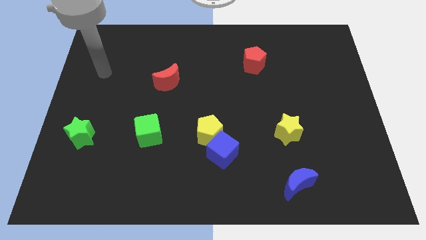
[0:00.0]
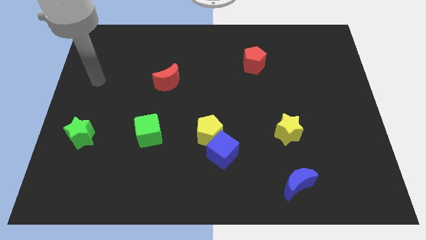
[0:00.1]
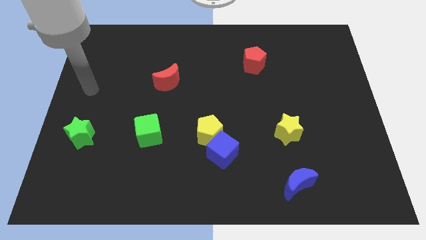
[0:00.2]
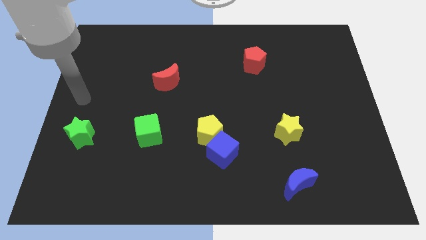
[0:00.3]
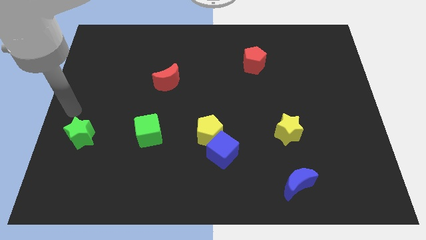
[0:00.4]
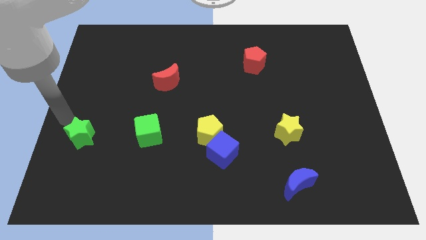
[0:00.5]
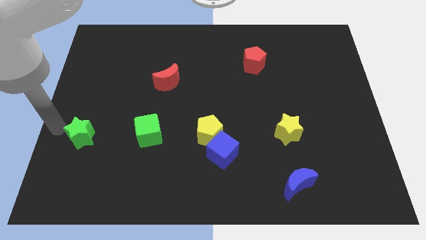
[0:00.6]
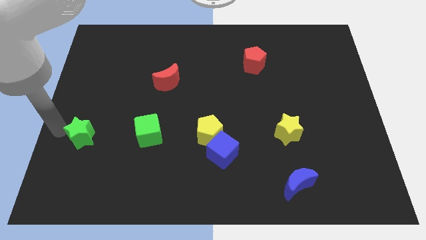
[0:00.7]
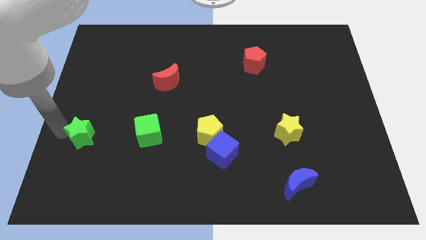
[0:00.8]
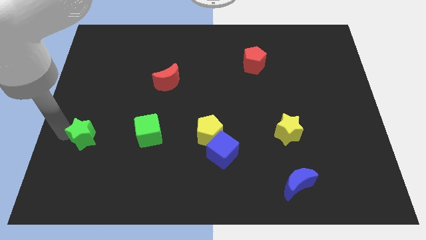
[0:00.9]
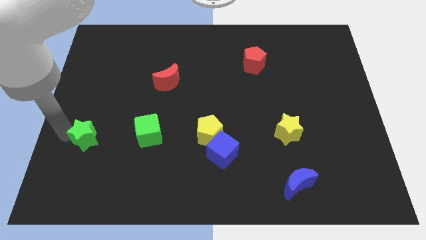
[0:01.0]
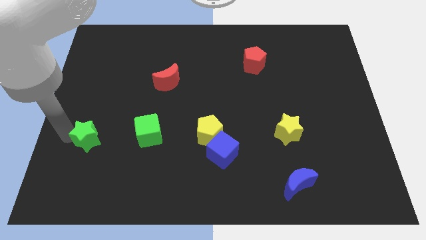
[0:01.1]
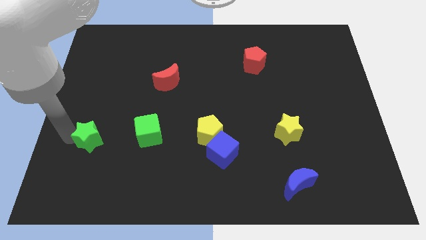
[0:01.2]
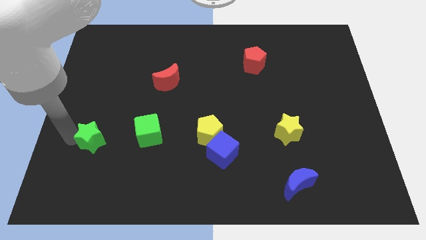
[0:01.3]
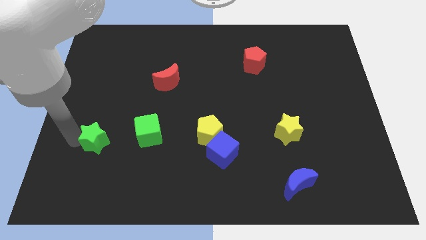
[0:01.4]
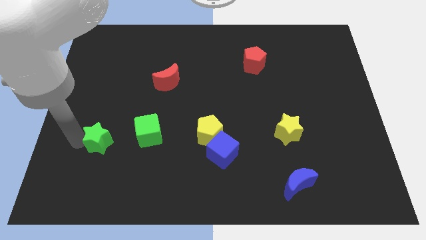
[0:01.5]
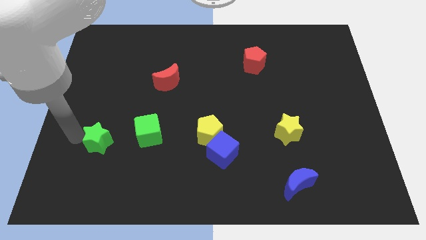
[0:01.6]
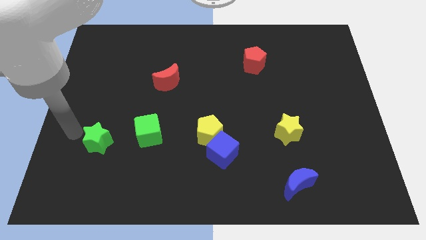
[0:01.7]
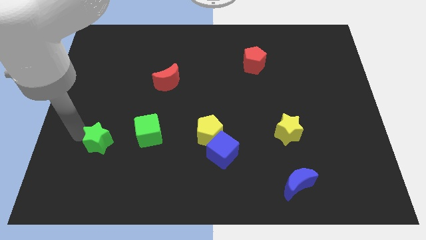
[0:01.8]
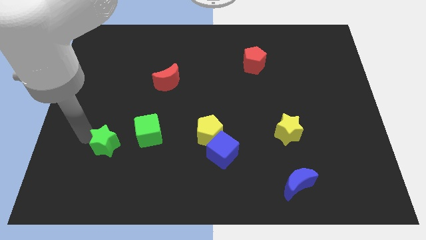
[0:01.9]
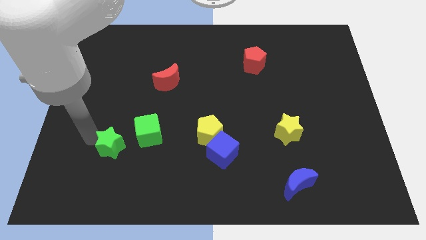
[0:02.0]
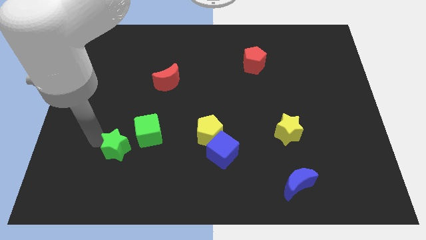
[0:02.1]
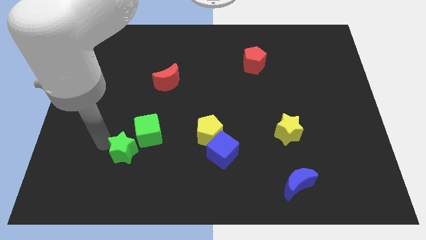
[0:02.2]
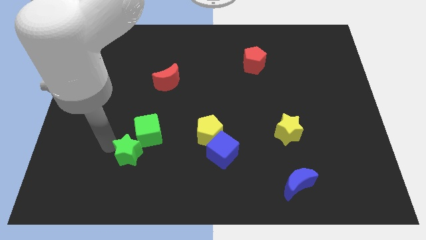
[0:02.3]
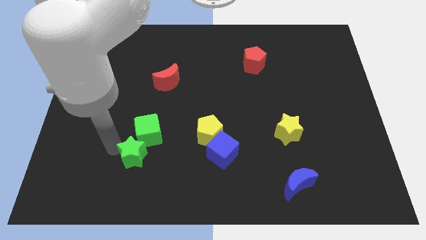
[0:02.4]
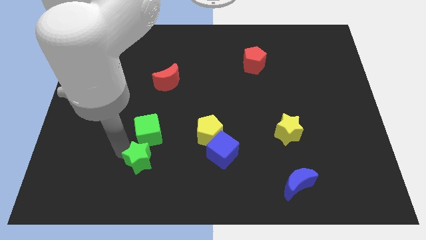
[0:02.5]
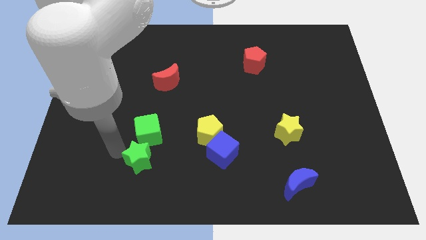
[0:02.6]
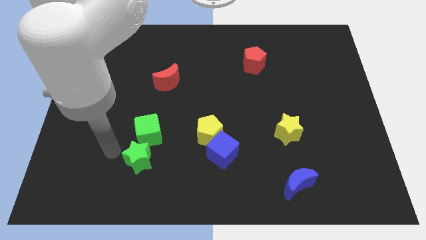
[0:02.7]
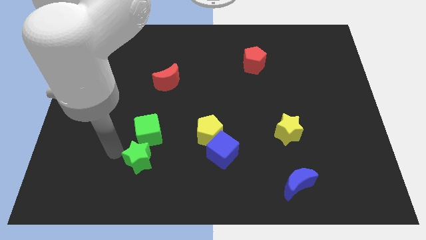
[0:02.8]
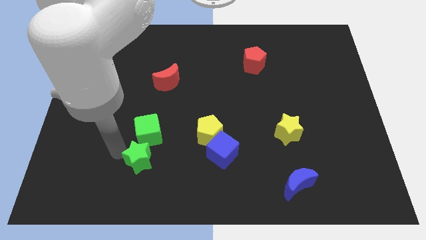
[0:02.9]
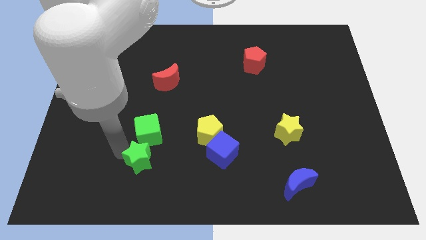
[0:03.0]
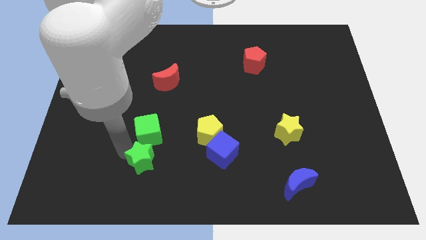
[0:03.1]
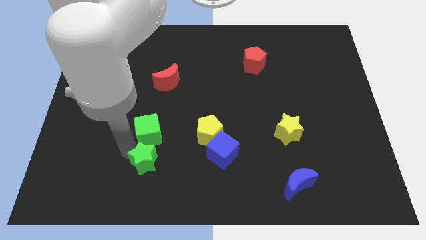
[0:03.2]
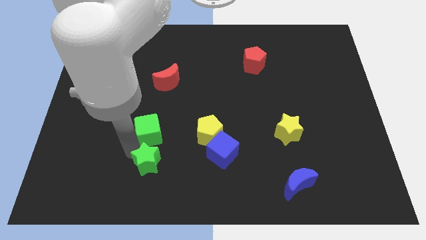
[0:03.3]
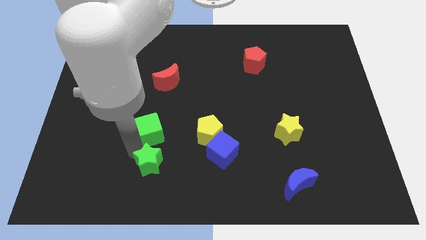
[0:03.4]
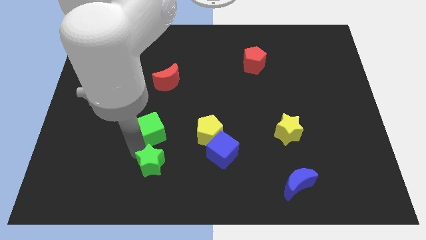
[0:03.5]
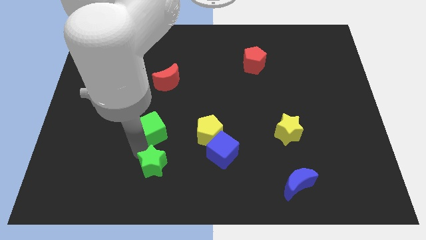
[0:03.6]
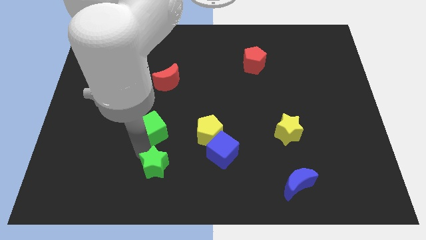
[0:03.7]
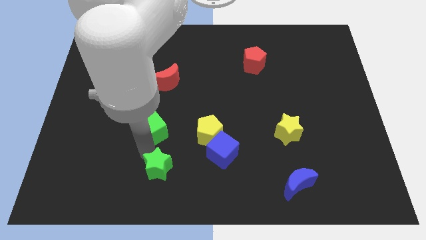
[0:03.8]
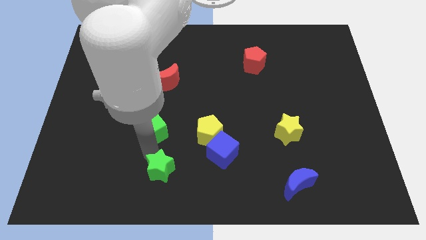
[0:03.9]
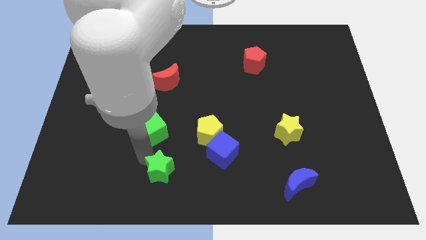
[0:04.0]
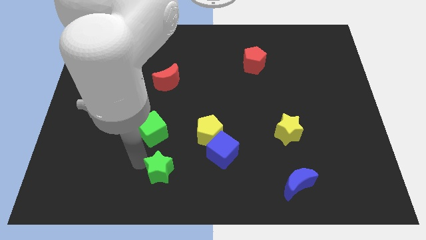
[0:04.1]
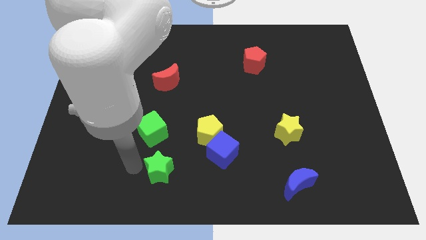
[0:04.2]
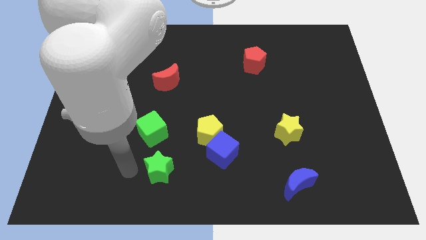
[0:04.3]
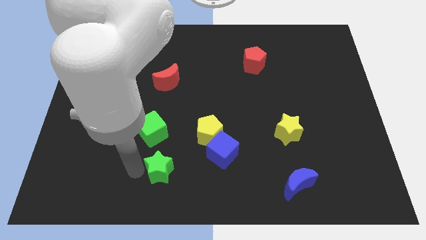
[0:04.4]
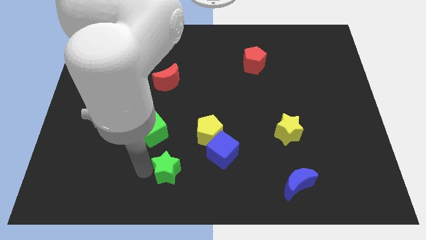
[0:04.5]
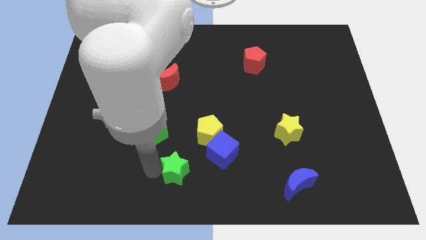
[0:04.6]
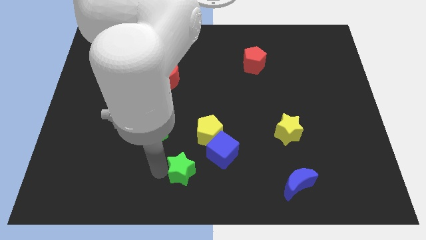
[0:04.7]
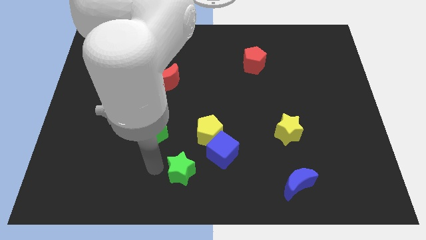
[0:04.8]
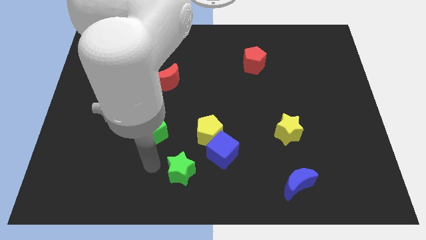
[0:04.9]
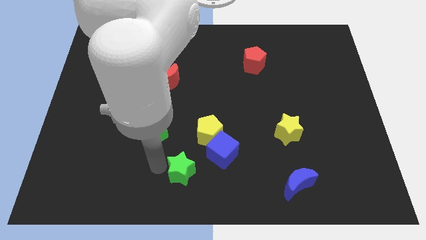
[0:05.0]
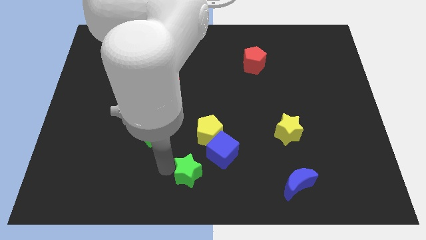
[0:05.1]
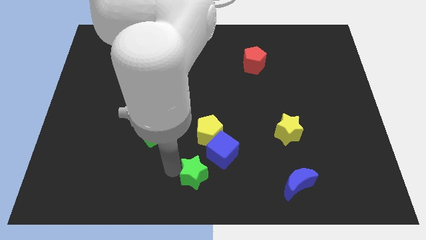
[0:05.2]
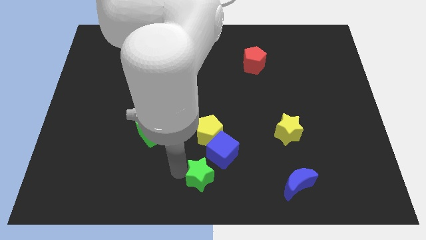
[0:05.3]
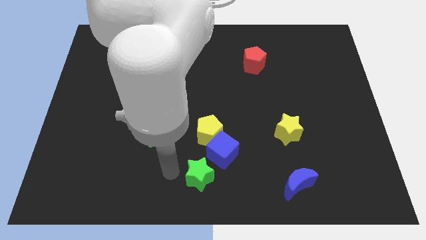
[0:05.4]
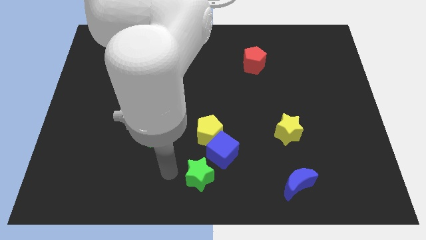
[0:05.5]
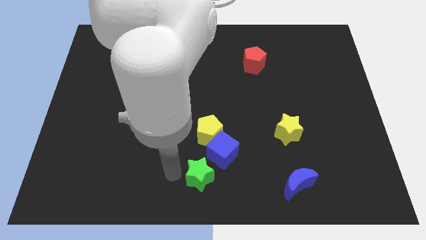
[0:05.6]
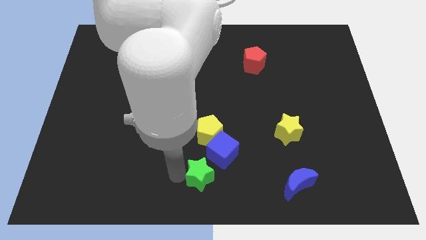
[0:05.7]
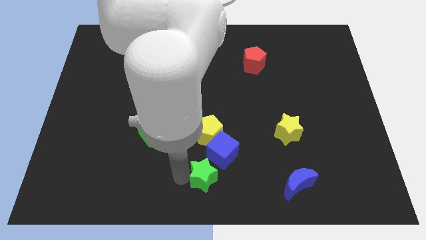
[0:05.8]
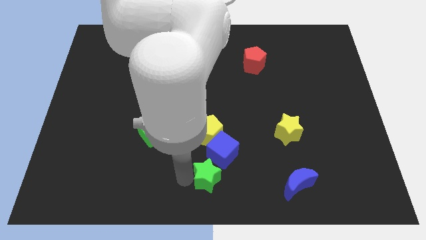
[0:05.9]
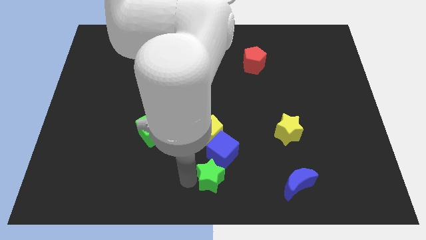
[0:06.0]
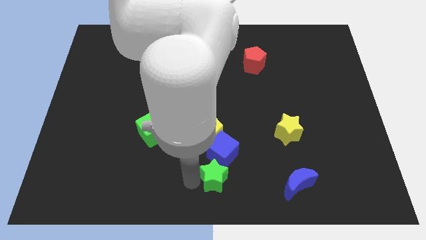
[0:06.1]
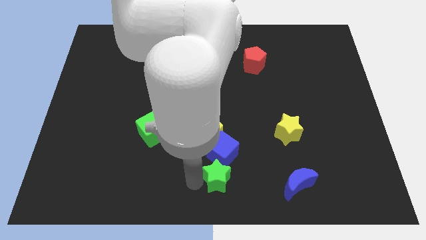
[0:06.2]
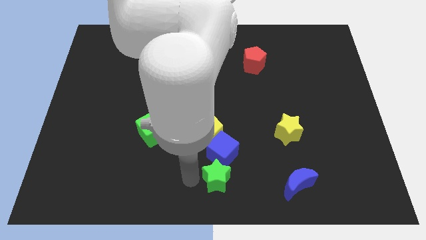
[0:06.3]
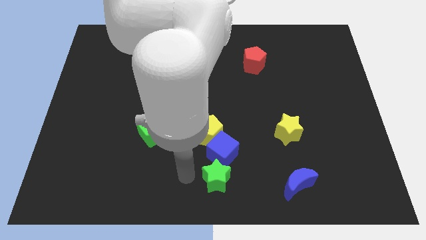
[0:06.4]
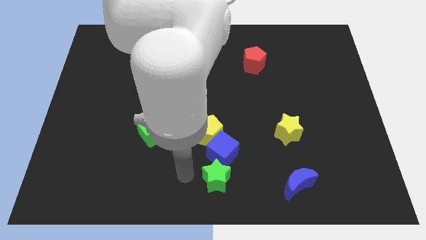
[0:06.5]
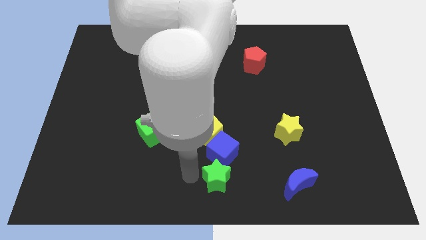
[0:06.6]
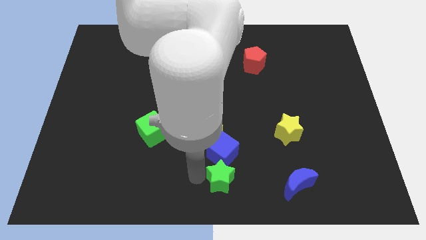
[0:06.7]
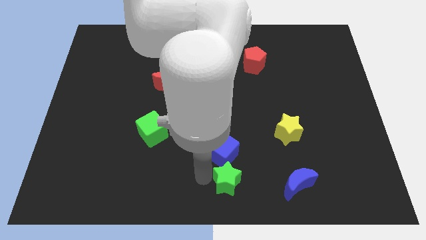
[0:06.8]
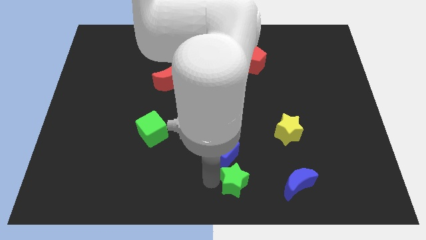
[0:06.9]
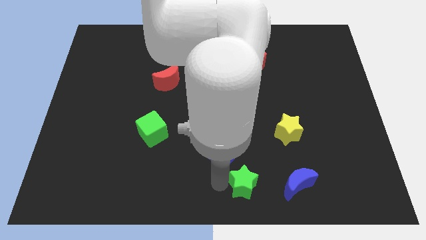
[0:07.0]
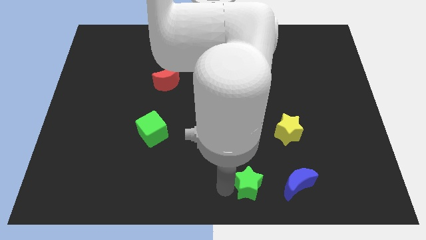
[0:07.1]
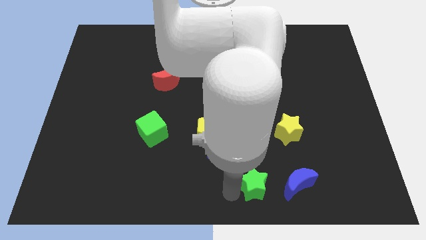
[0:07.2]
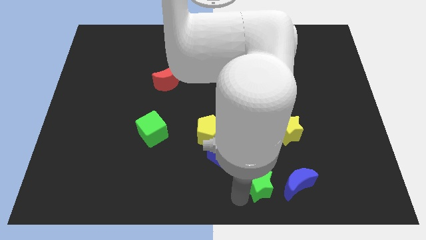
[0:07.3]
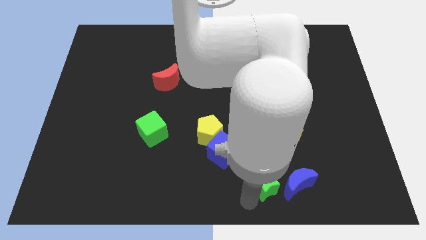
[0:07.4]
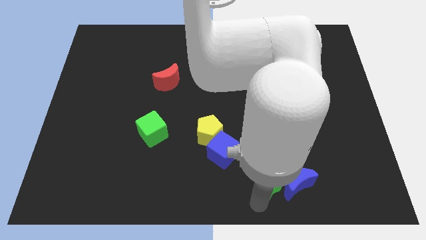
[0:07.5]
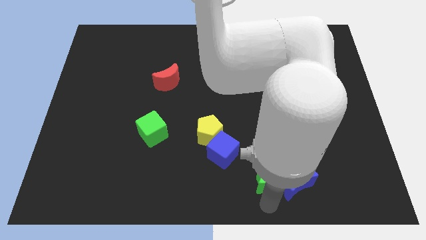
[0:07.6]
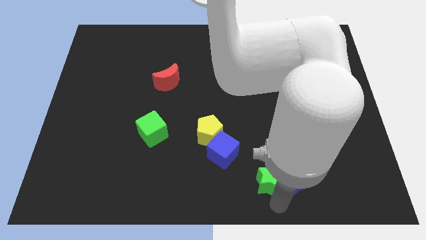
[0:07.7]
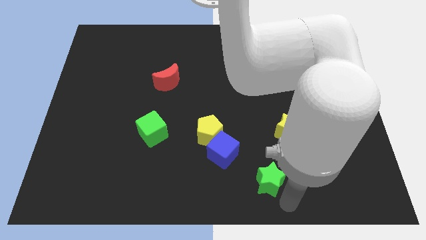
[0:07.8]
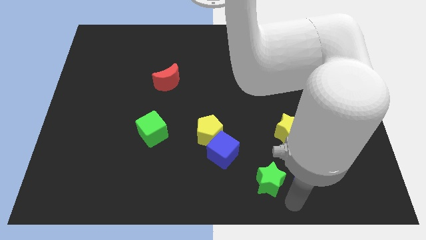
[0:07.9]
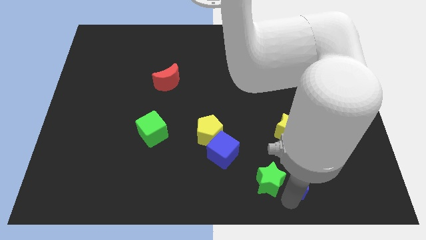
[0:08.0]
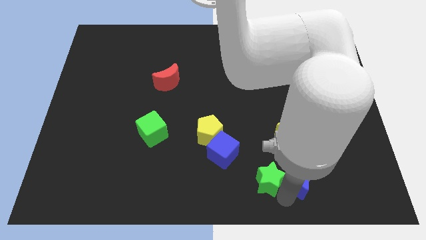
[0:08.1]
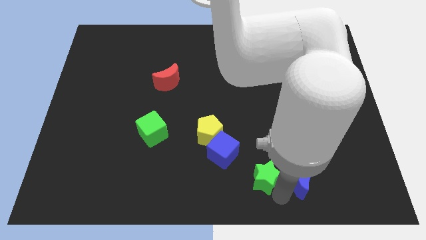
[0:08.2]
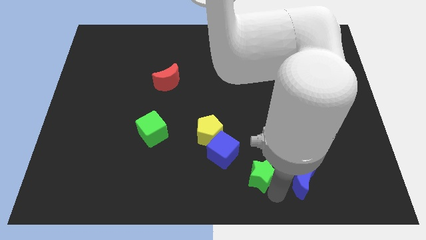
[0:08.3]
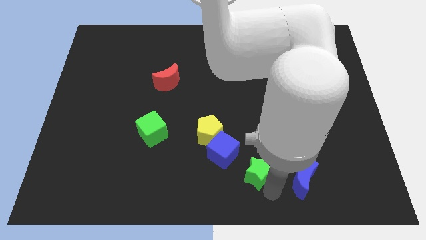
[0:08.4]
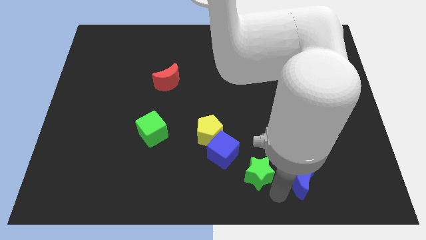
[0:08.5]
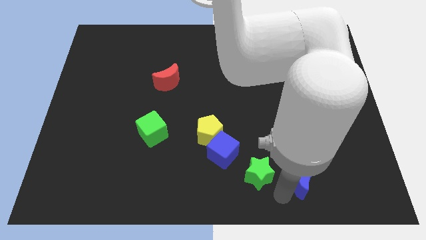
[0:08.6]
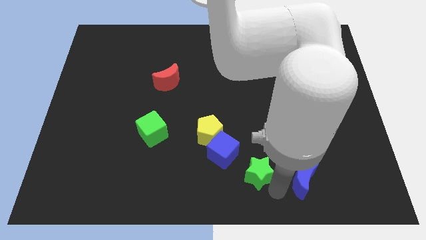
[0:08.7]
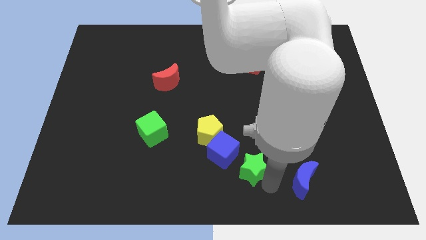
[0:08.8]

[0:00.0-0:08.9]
push the green star to the bottom right side of the yellow pentagon
